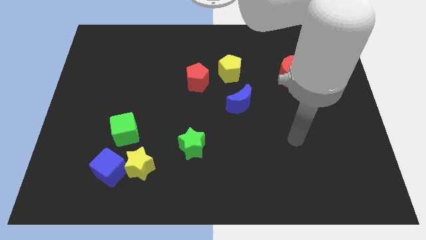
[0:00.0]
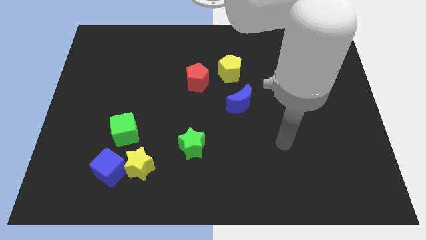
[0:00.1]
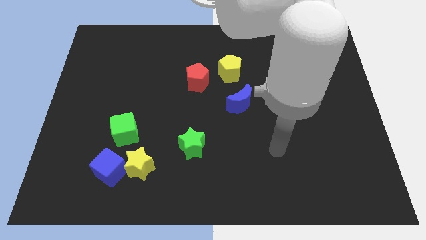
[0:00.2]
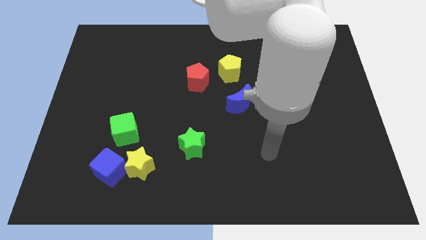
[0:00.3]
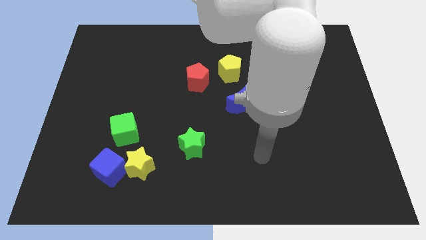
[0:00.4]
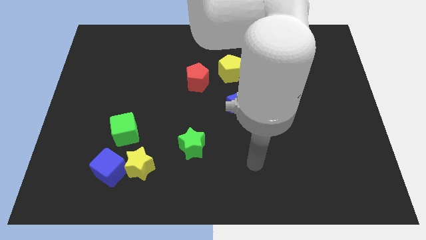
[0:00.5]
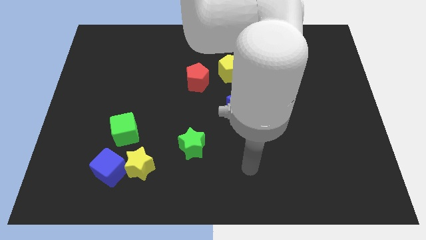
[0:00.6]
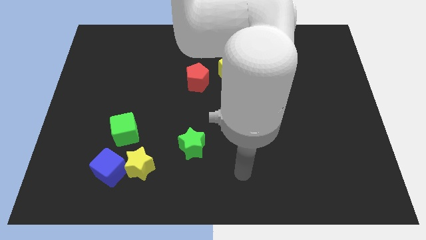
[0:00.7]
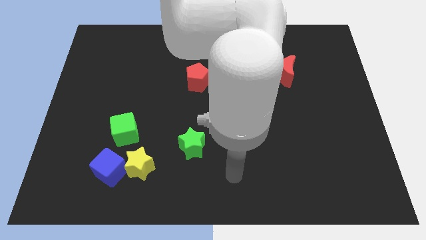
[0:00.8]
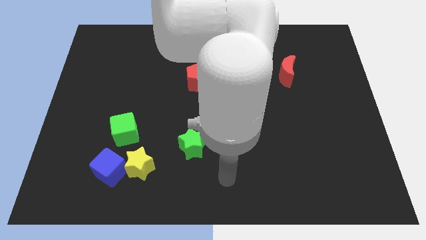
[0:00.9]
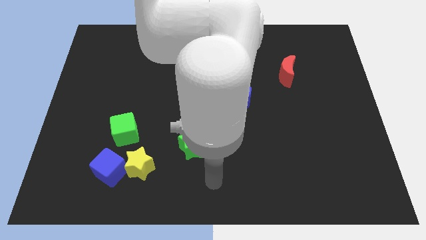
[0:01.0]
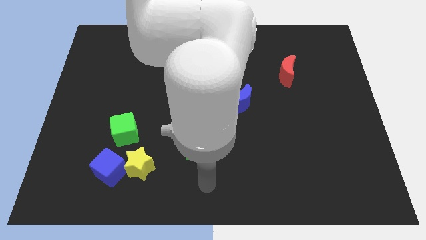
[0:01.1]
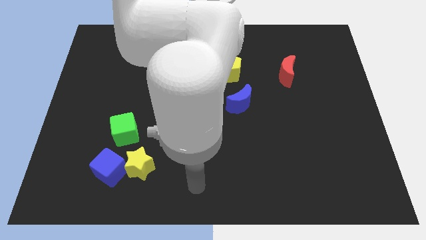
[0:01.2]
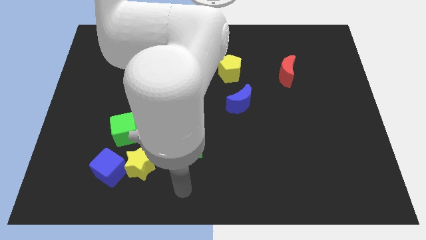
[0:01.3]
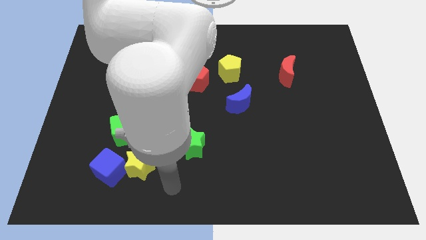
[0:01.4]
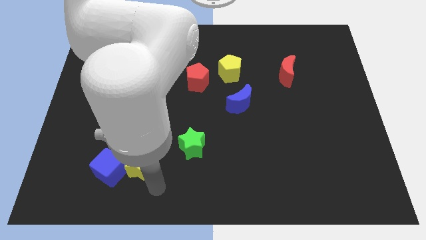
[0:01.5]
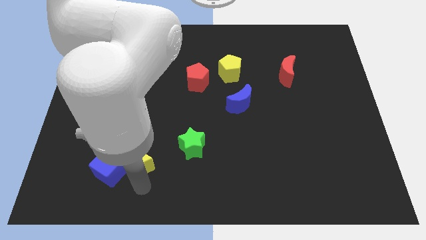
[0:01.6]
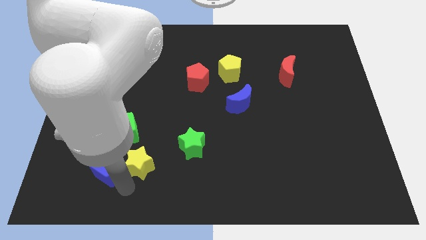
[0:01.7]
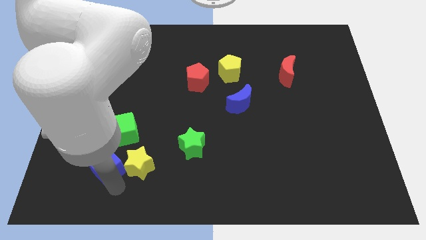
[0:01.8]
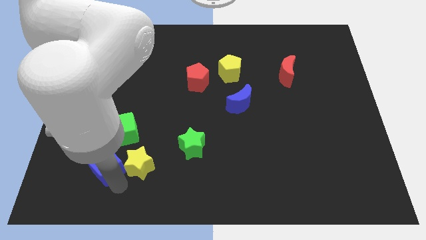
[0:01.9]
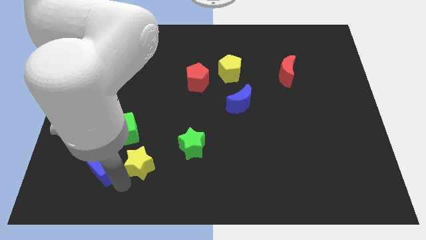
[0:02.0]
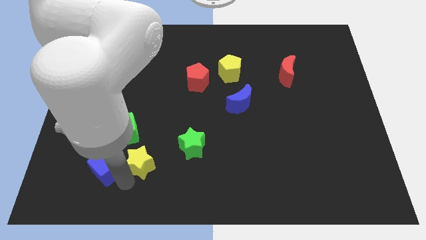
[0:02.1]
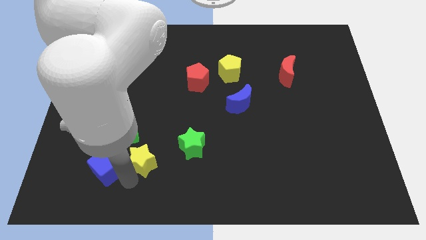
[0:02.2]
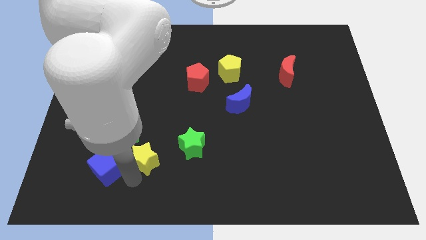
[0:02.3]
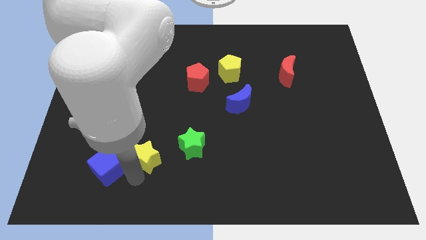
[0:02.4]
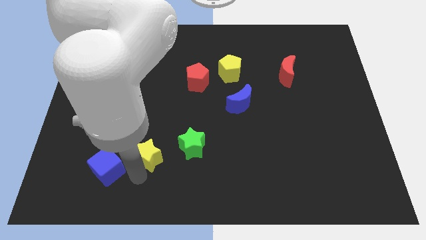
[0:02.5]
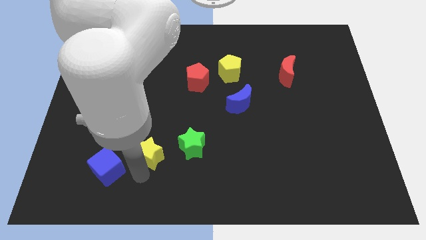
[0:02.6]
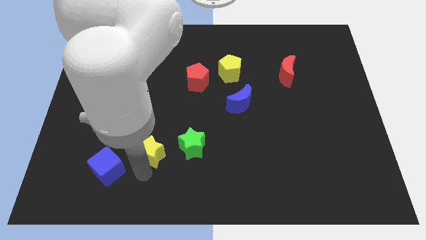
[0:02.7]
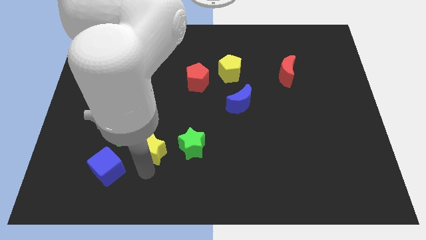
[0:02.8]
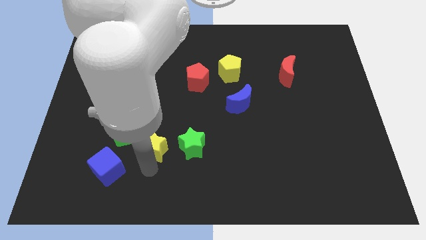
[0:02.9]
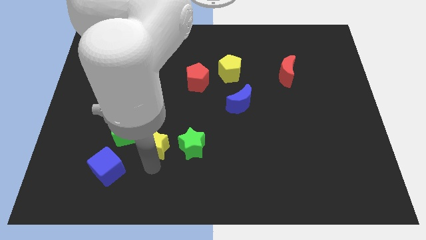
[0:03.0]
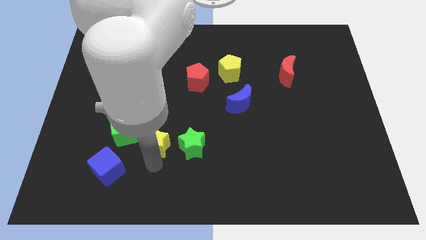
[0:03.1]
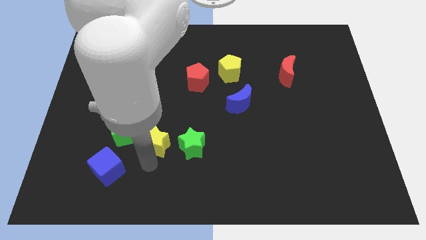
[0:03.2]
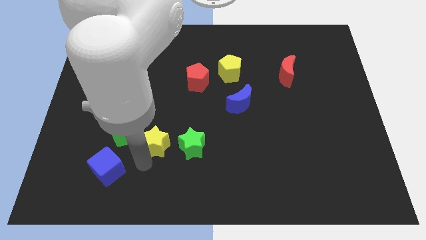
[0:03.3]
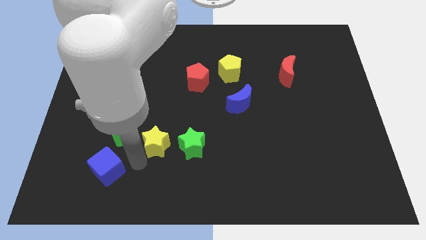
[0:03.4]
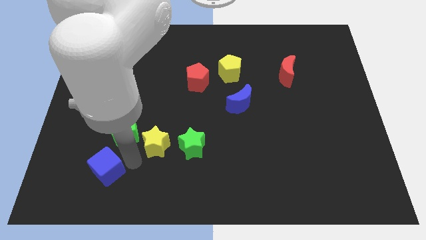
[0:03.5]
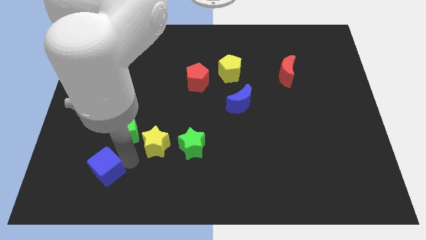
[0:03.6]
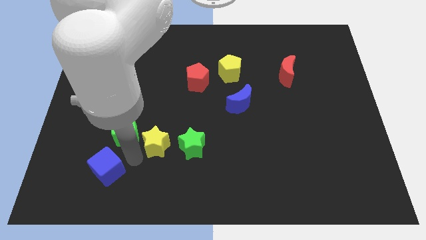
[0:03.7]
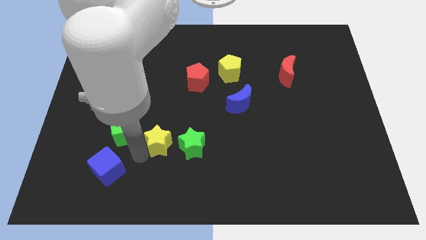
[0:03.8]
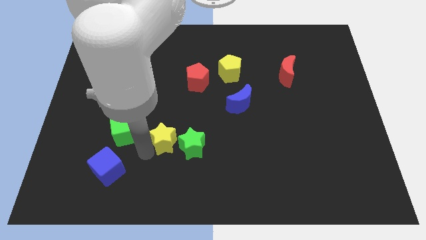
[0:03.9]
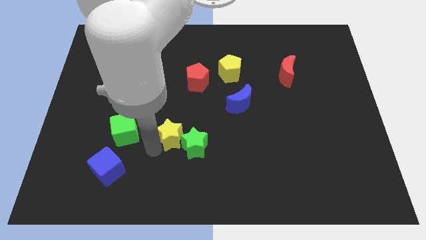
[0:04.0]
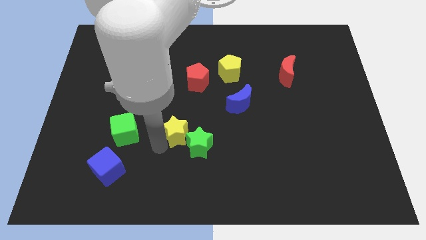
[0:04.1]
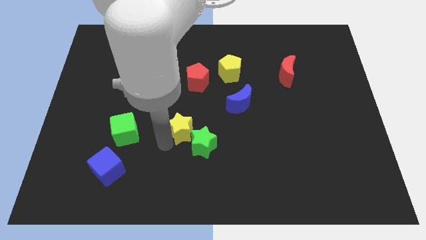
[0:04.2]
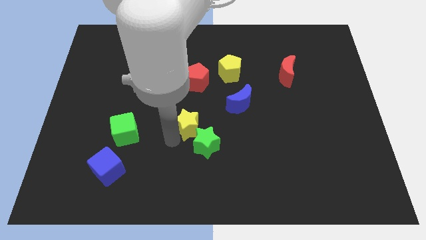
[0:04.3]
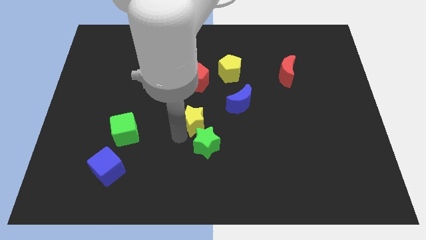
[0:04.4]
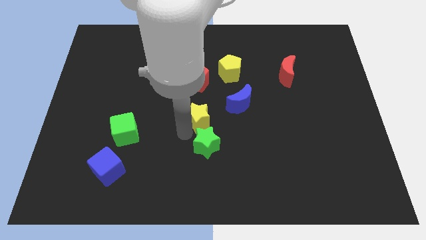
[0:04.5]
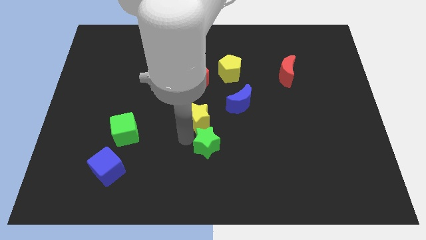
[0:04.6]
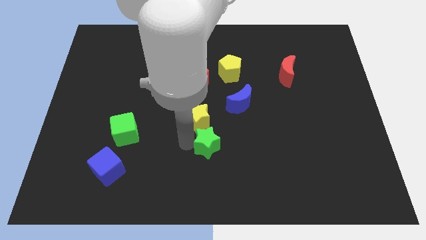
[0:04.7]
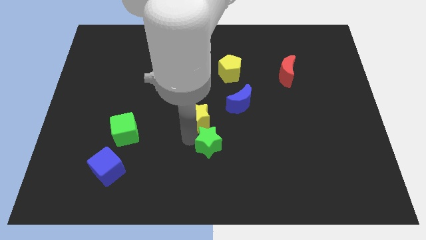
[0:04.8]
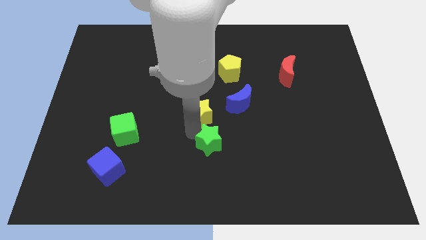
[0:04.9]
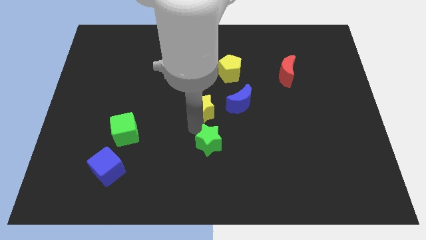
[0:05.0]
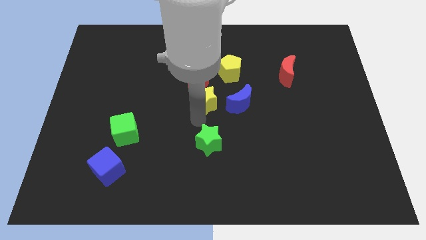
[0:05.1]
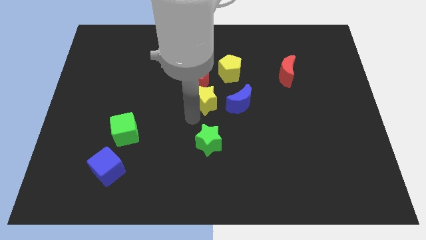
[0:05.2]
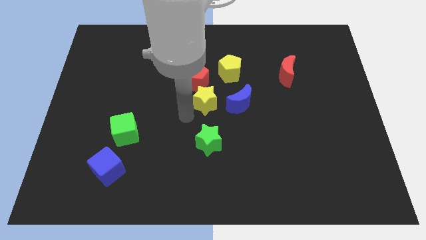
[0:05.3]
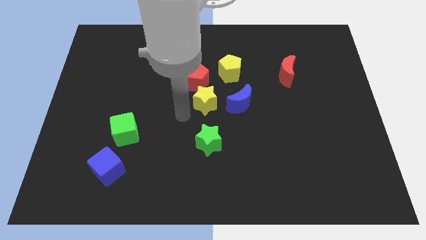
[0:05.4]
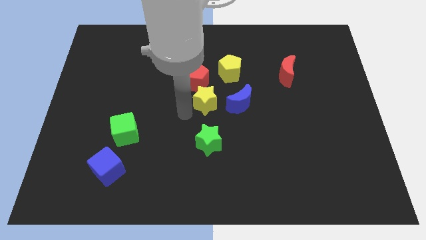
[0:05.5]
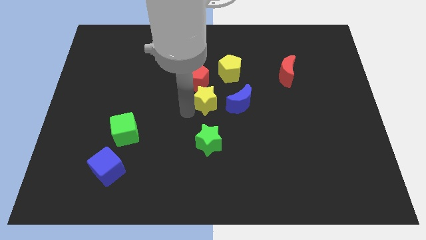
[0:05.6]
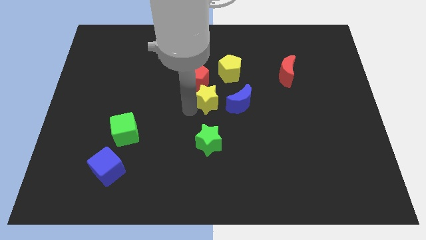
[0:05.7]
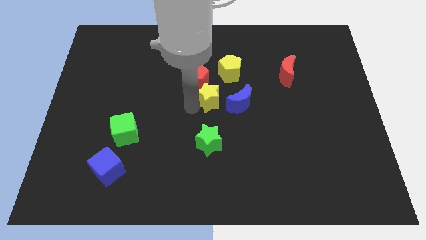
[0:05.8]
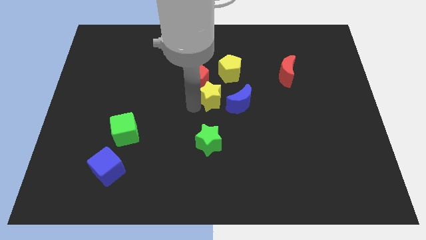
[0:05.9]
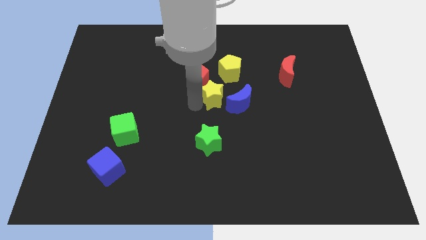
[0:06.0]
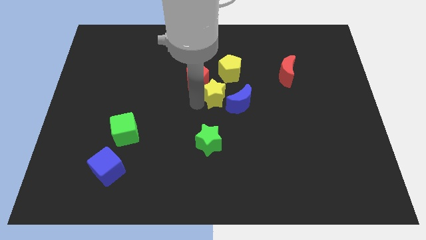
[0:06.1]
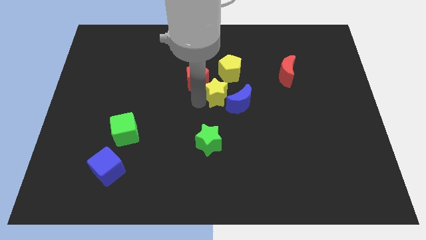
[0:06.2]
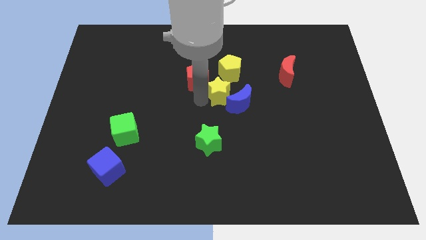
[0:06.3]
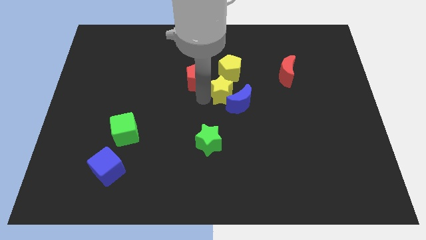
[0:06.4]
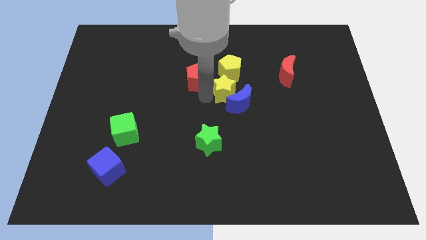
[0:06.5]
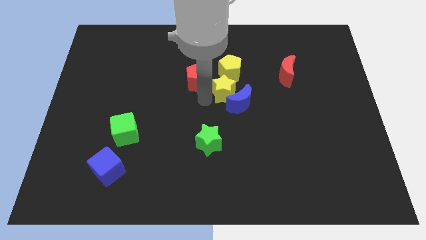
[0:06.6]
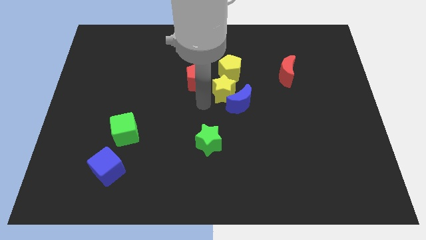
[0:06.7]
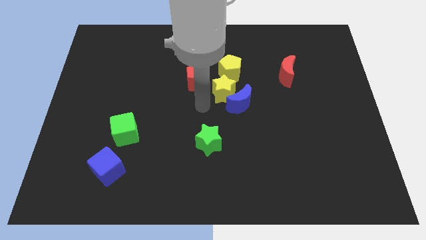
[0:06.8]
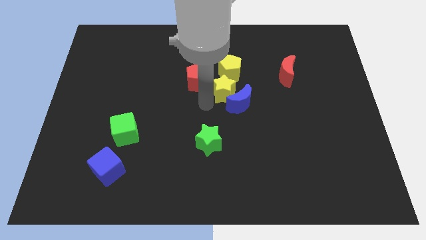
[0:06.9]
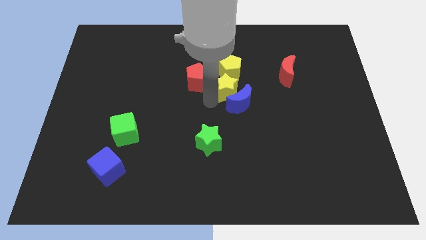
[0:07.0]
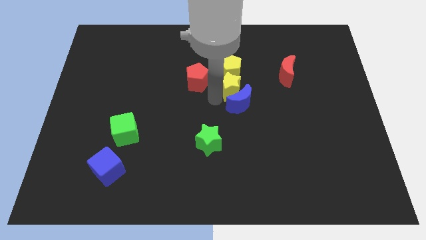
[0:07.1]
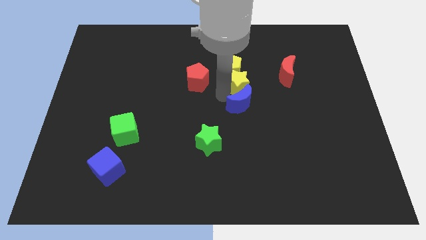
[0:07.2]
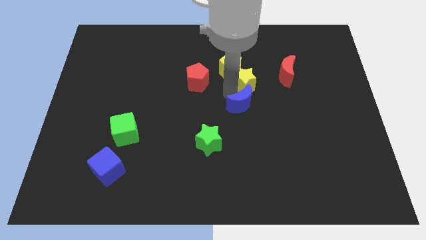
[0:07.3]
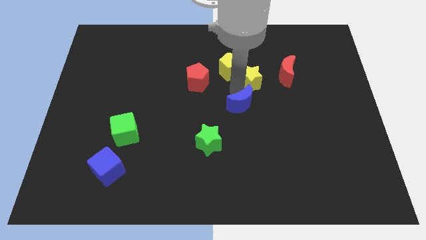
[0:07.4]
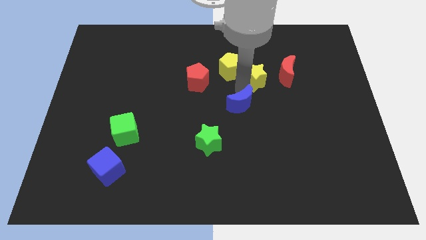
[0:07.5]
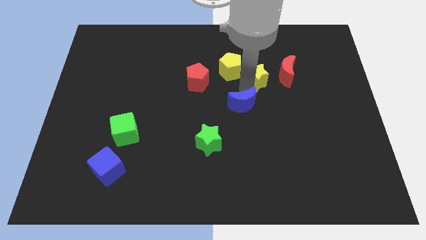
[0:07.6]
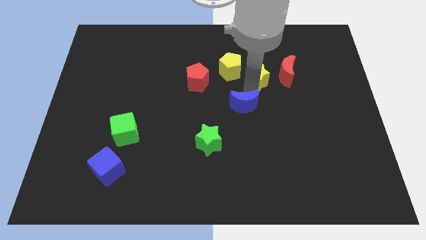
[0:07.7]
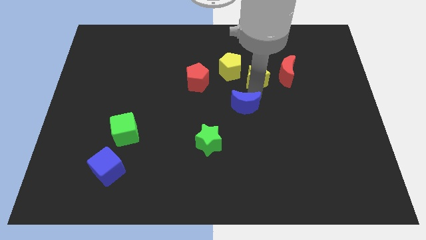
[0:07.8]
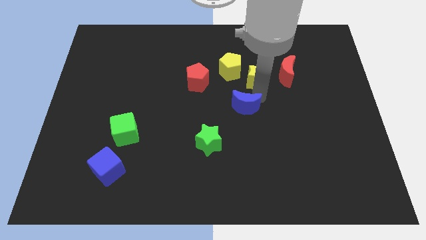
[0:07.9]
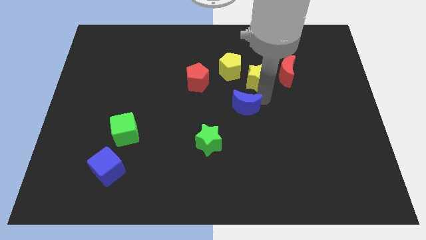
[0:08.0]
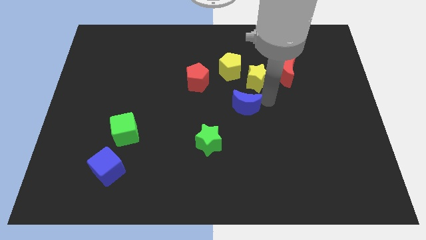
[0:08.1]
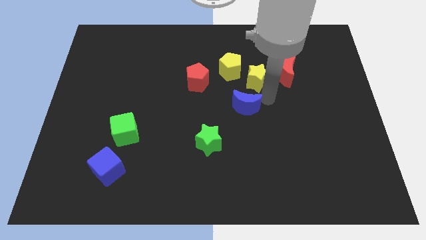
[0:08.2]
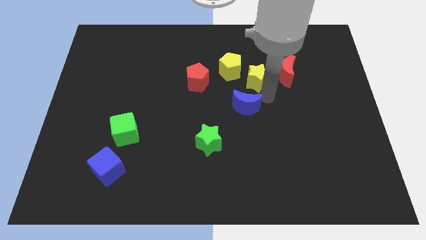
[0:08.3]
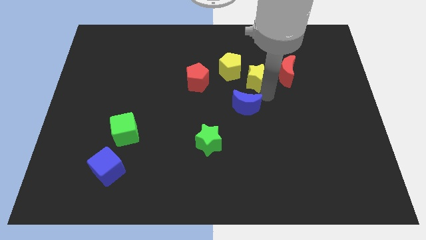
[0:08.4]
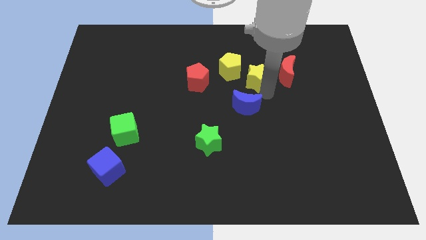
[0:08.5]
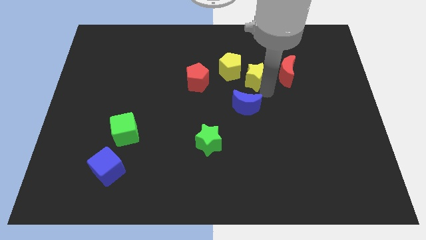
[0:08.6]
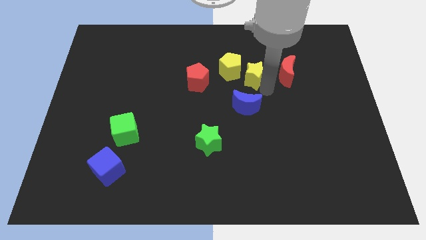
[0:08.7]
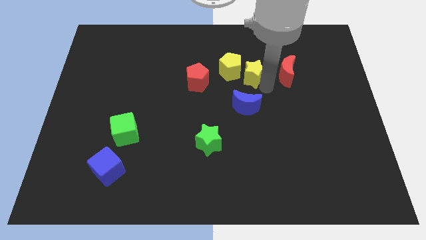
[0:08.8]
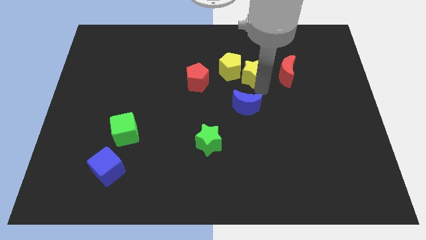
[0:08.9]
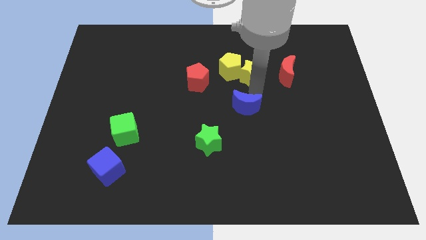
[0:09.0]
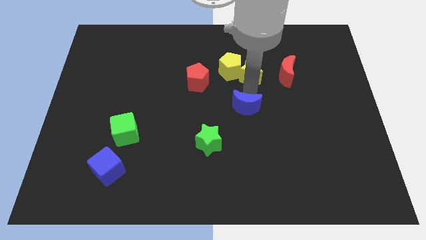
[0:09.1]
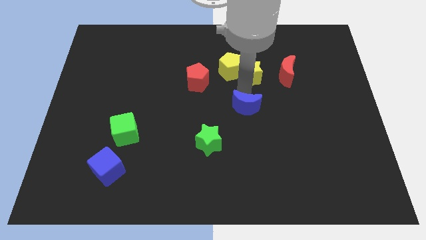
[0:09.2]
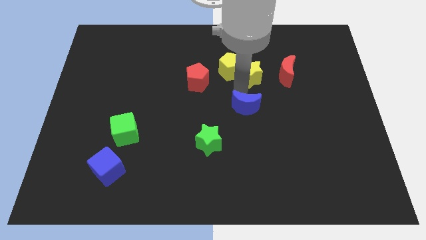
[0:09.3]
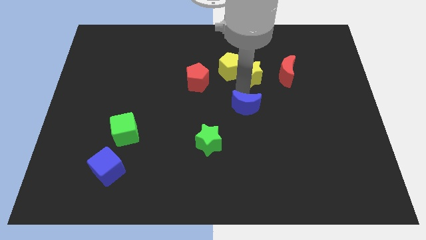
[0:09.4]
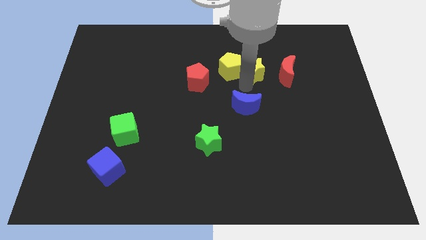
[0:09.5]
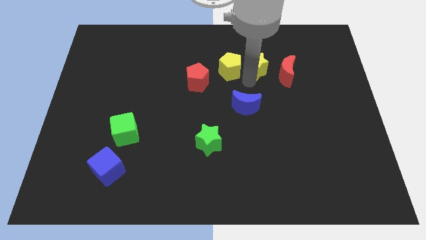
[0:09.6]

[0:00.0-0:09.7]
move the yellow star to the top left side of the red moon
